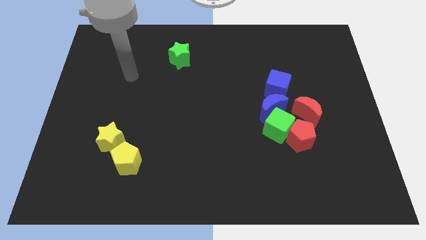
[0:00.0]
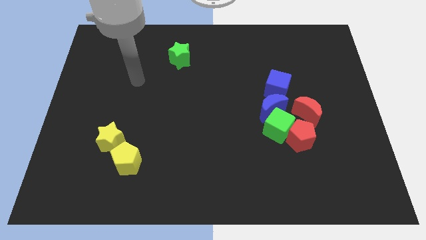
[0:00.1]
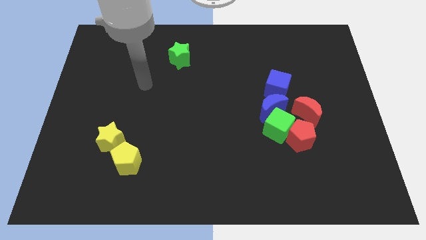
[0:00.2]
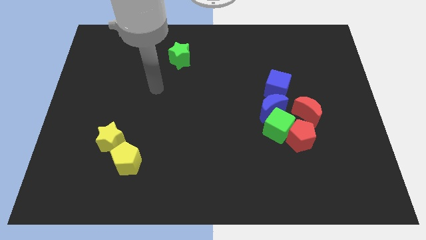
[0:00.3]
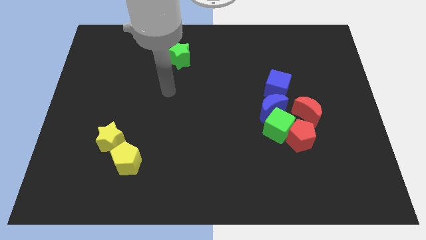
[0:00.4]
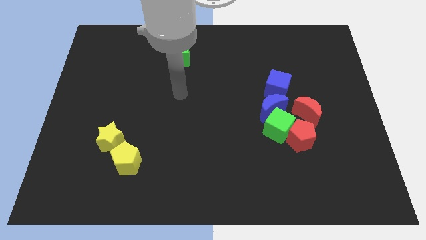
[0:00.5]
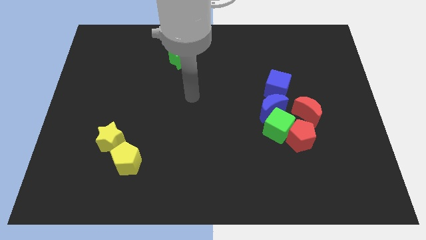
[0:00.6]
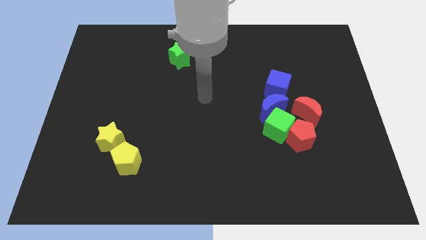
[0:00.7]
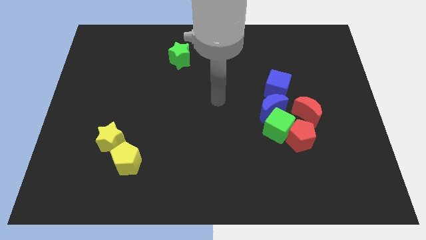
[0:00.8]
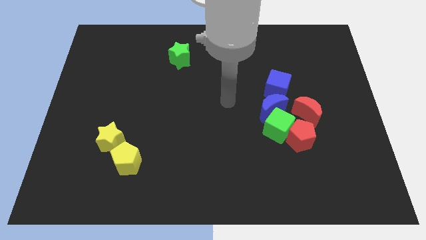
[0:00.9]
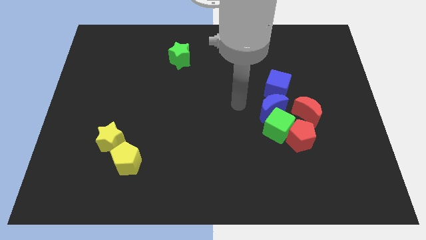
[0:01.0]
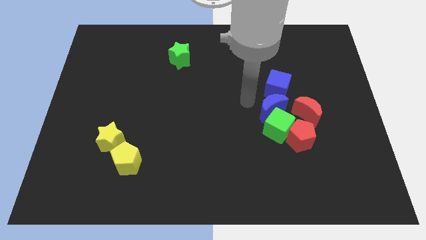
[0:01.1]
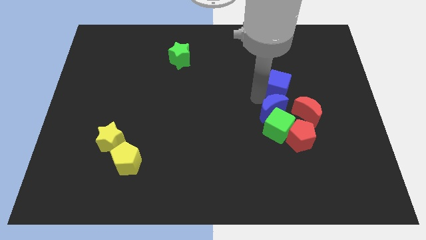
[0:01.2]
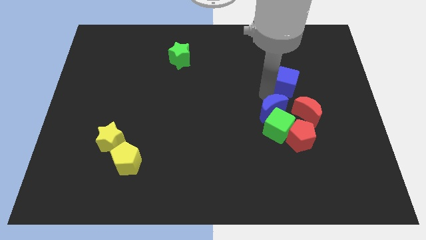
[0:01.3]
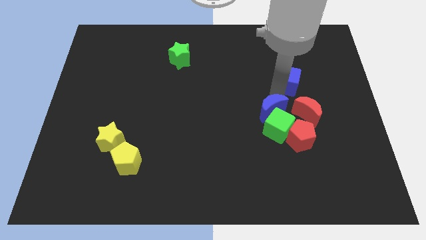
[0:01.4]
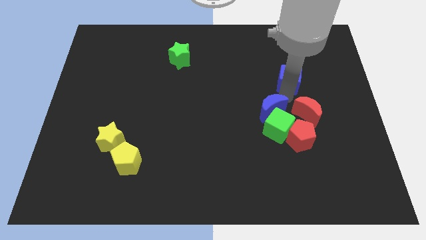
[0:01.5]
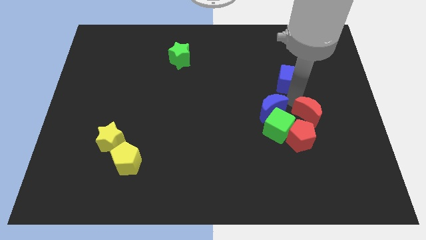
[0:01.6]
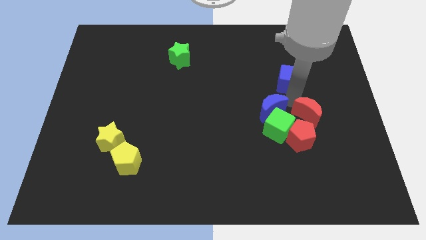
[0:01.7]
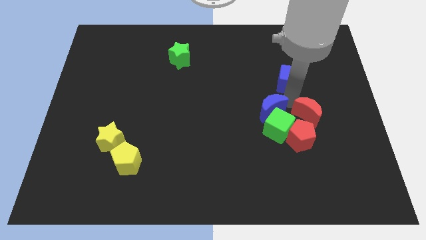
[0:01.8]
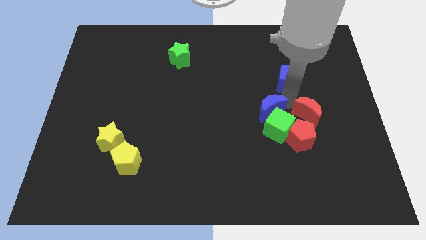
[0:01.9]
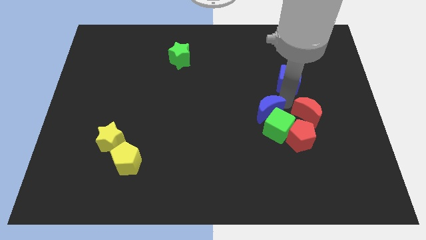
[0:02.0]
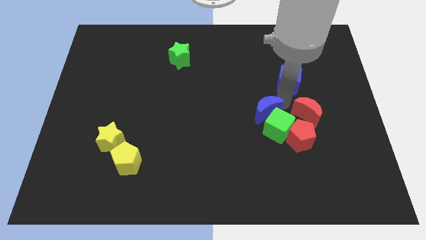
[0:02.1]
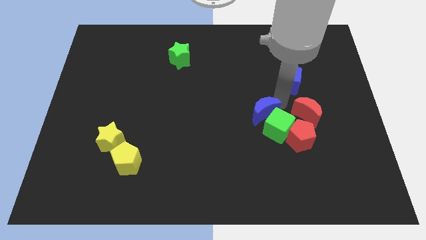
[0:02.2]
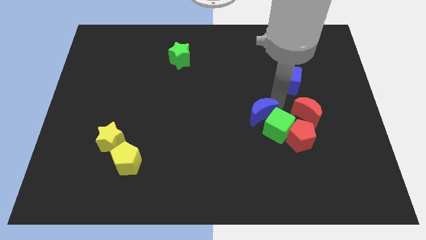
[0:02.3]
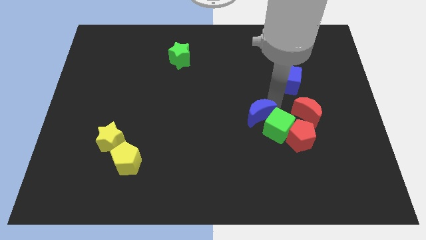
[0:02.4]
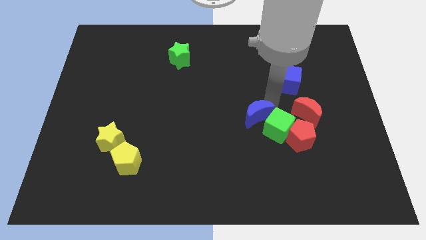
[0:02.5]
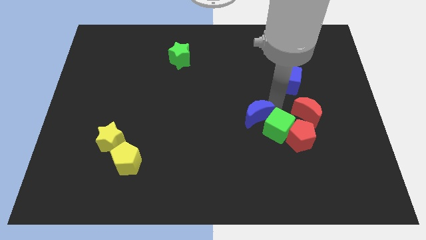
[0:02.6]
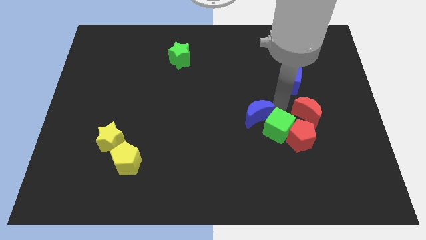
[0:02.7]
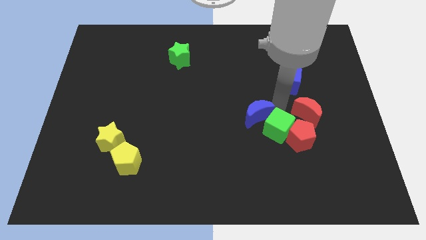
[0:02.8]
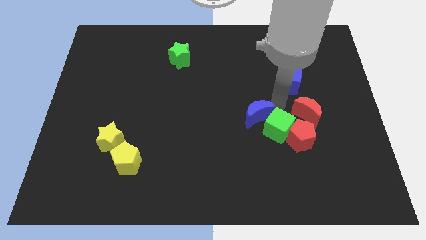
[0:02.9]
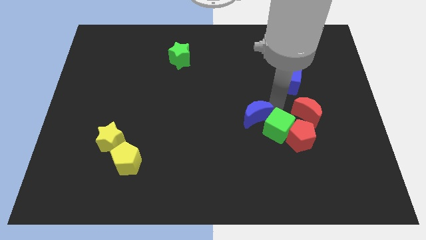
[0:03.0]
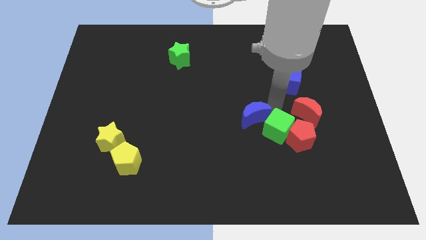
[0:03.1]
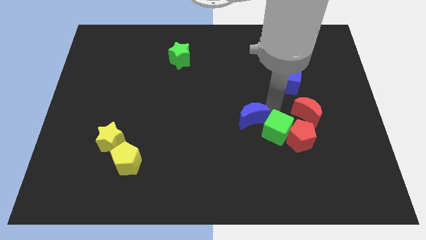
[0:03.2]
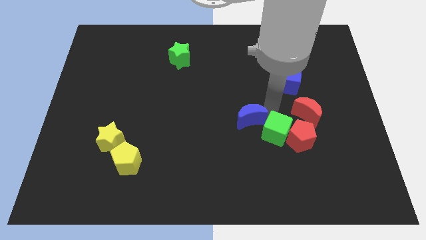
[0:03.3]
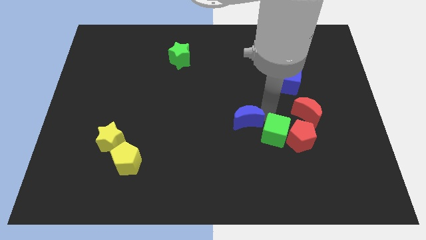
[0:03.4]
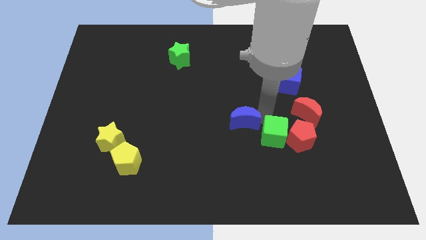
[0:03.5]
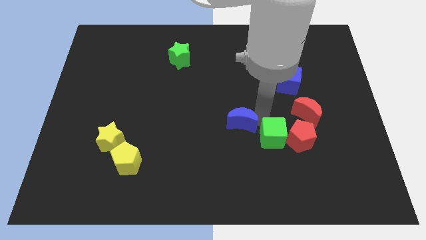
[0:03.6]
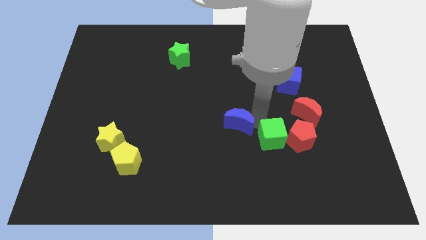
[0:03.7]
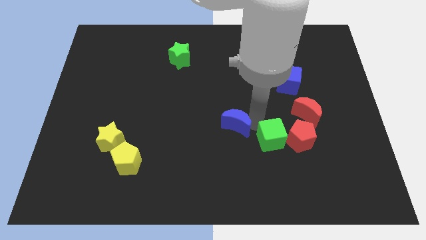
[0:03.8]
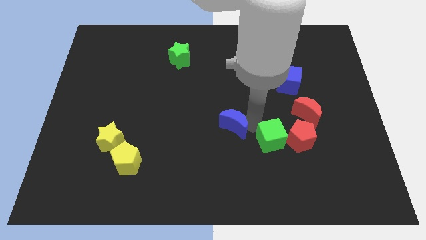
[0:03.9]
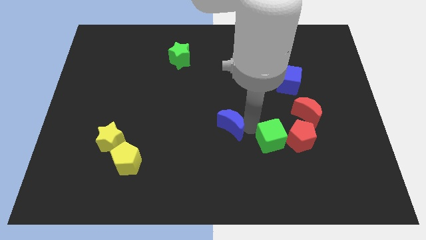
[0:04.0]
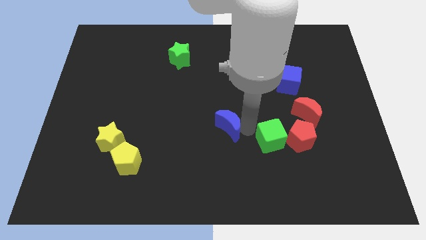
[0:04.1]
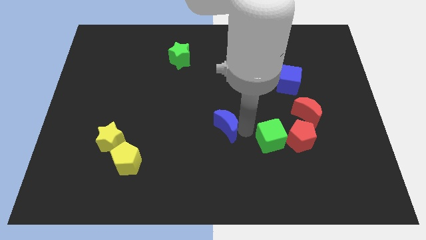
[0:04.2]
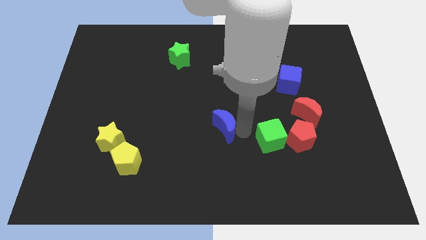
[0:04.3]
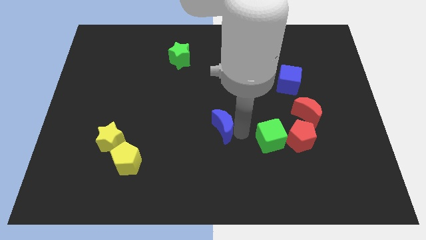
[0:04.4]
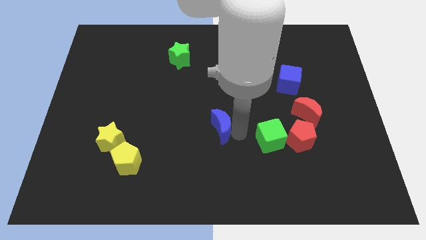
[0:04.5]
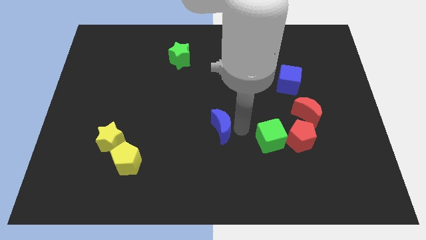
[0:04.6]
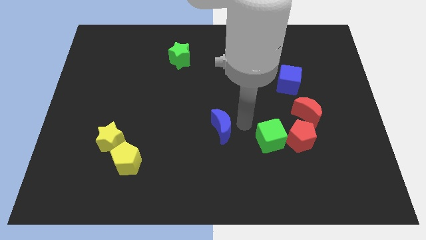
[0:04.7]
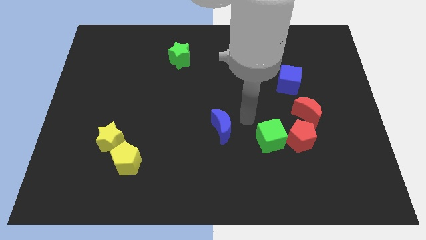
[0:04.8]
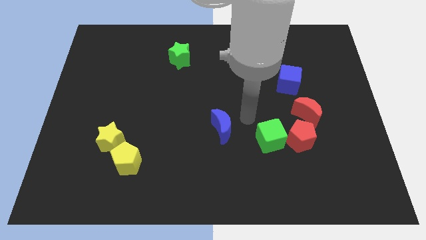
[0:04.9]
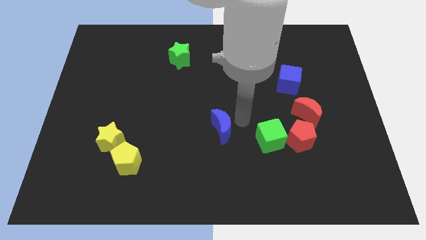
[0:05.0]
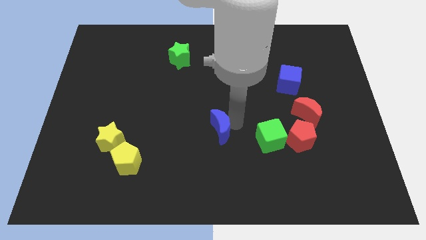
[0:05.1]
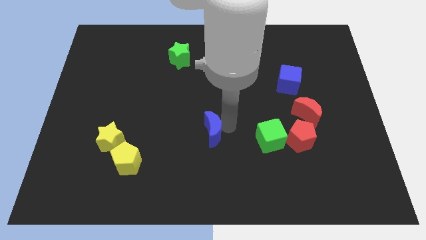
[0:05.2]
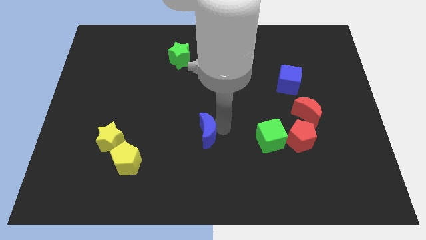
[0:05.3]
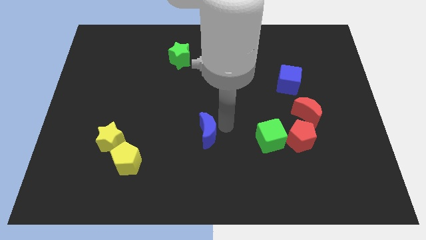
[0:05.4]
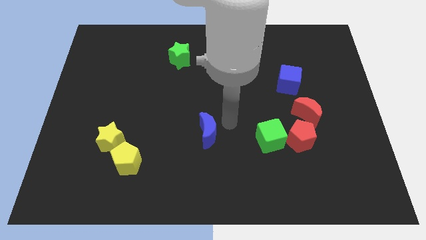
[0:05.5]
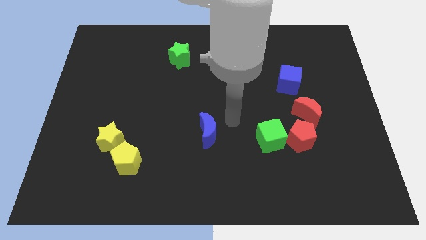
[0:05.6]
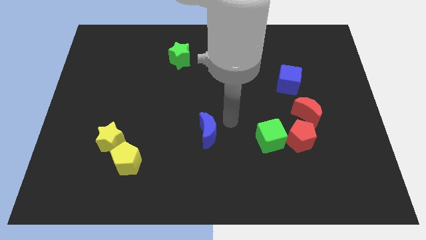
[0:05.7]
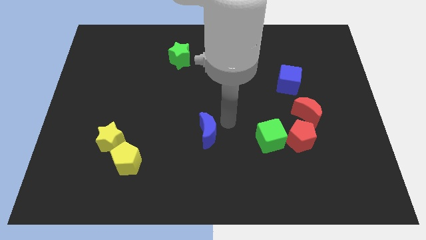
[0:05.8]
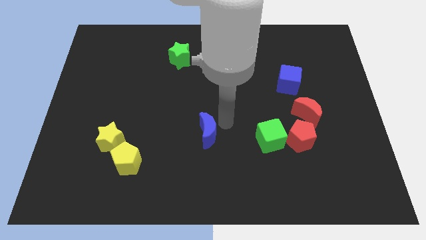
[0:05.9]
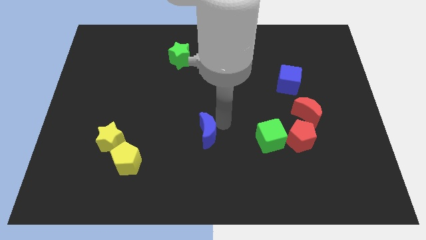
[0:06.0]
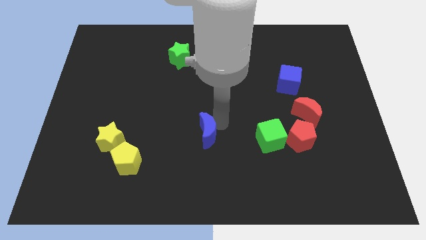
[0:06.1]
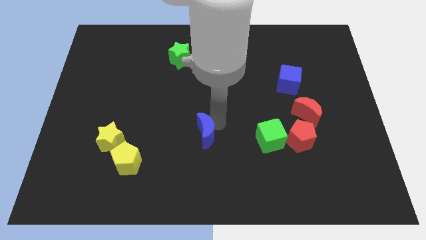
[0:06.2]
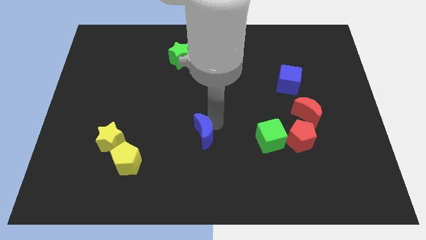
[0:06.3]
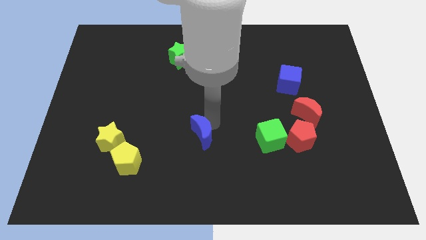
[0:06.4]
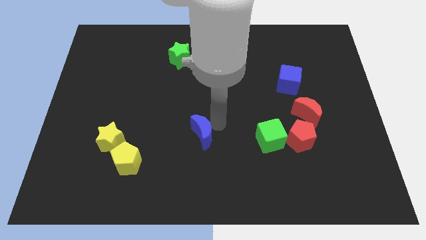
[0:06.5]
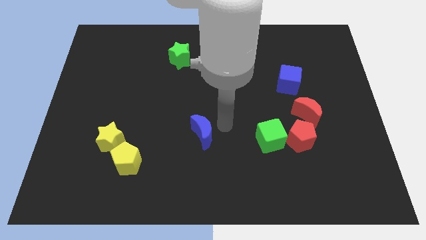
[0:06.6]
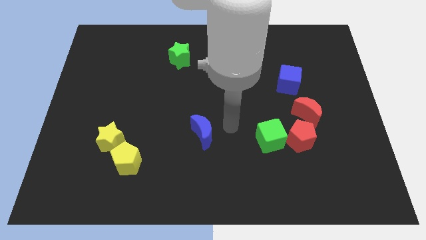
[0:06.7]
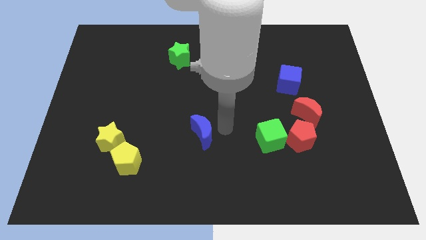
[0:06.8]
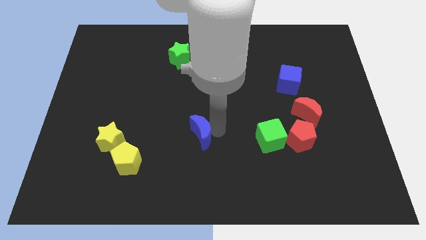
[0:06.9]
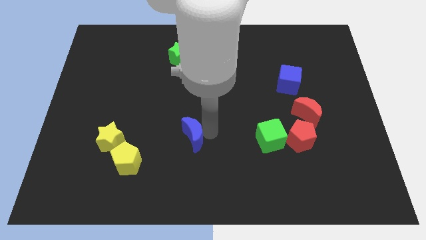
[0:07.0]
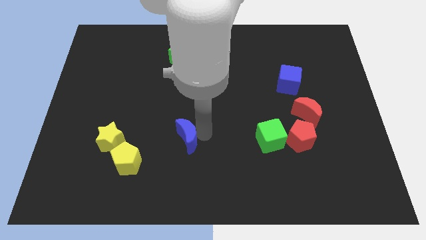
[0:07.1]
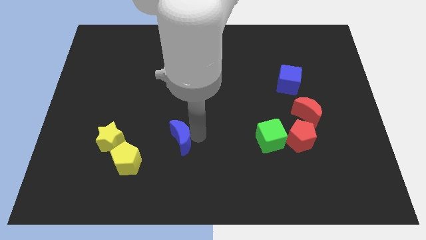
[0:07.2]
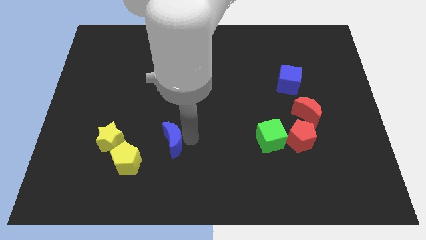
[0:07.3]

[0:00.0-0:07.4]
slide the blue moon diagonally up and to the right of the yellow pentagon
